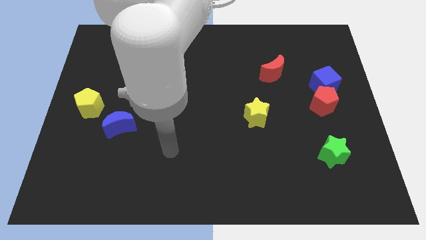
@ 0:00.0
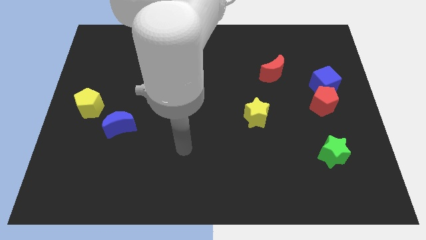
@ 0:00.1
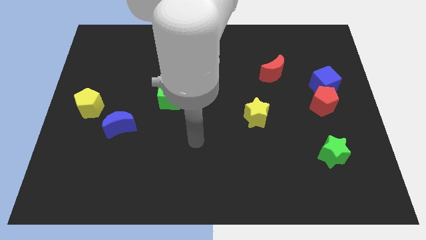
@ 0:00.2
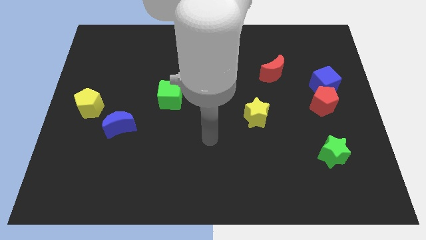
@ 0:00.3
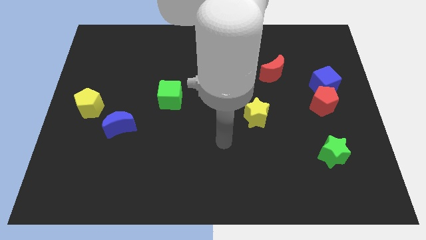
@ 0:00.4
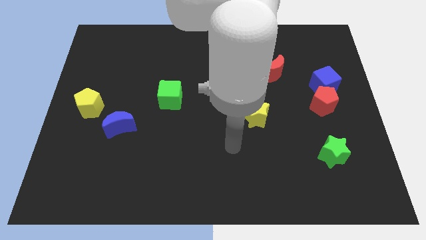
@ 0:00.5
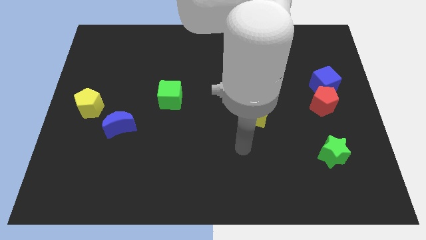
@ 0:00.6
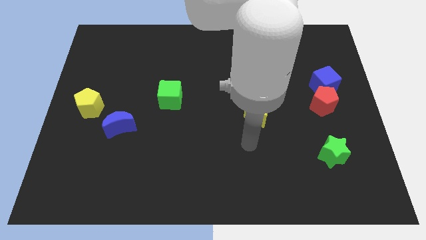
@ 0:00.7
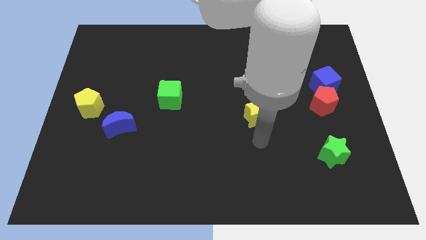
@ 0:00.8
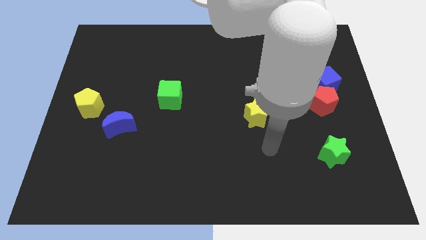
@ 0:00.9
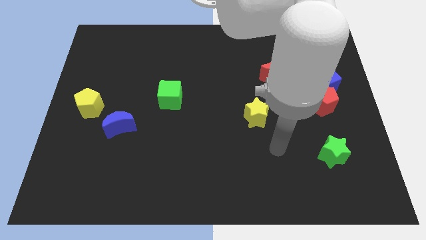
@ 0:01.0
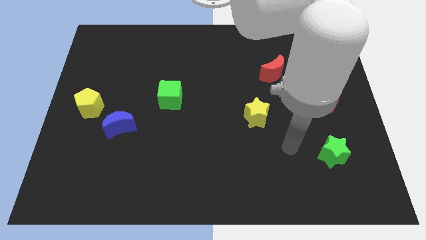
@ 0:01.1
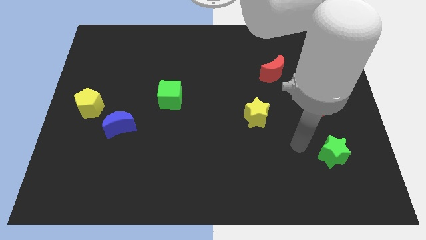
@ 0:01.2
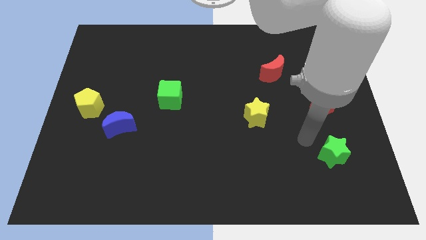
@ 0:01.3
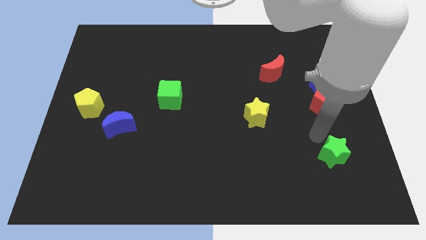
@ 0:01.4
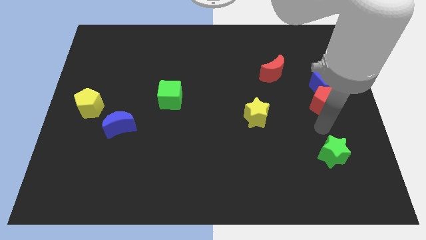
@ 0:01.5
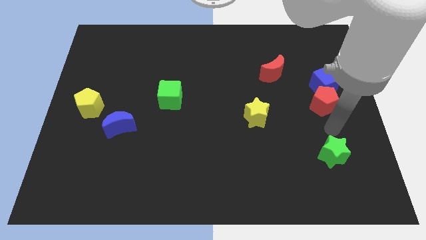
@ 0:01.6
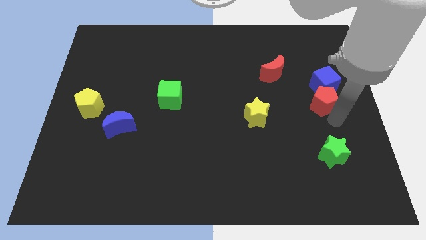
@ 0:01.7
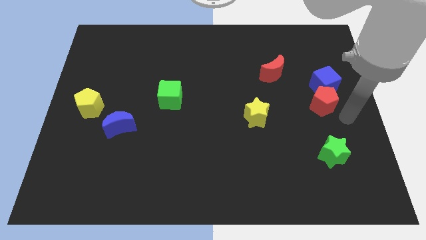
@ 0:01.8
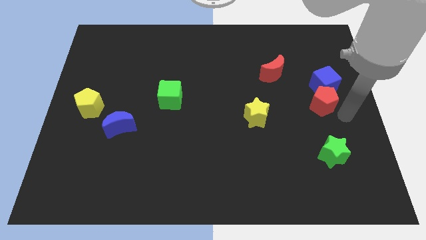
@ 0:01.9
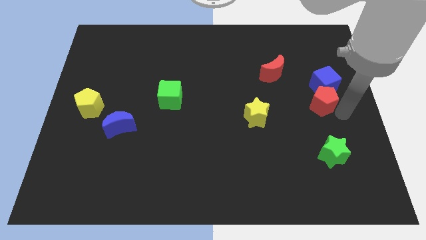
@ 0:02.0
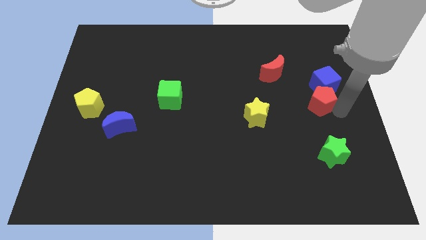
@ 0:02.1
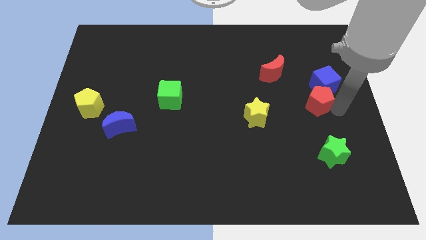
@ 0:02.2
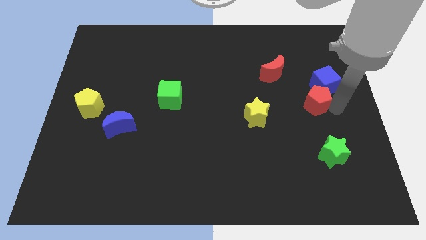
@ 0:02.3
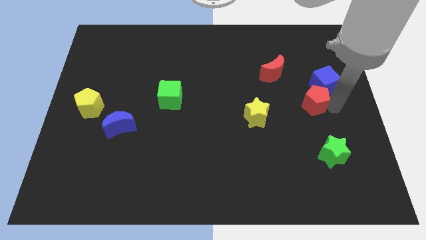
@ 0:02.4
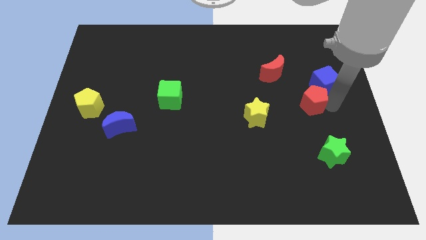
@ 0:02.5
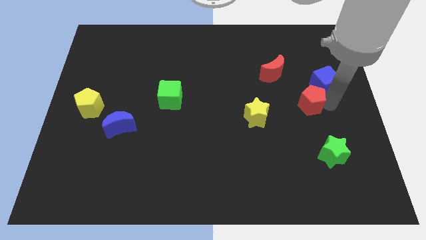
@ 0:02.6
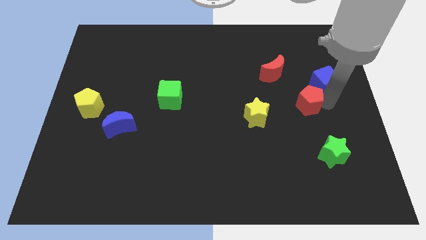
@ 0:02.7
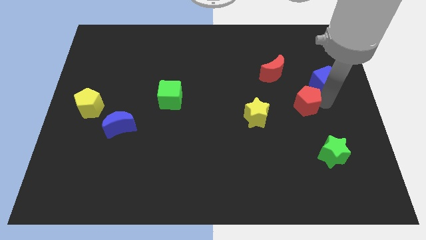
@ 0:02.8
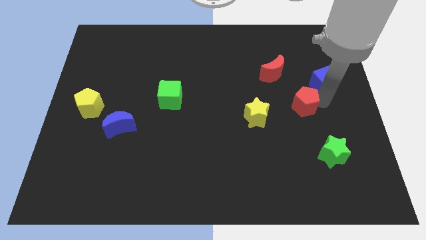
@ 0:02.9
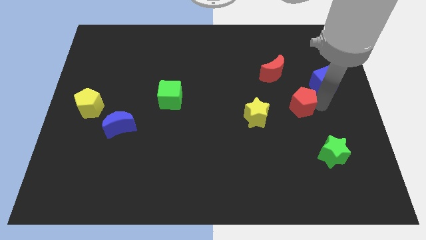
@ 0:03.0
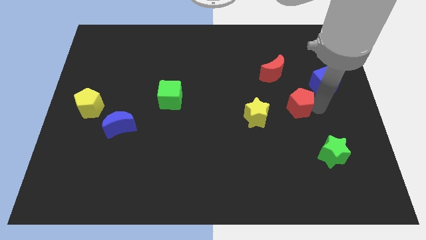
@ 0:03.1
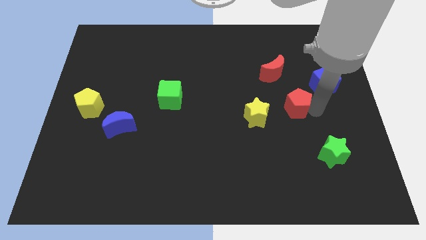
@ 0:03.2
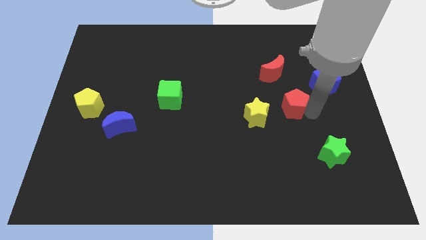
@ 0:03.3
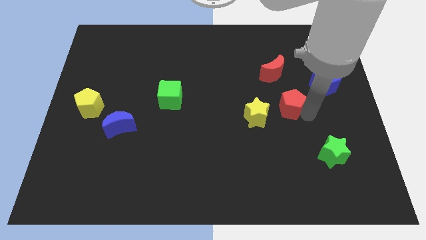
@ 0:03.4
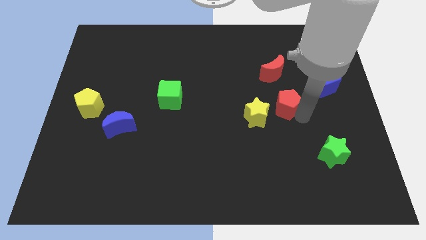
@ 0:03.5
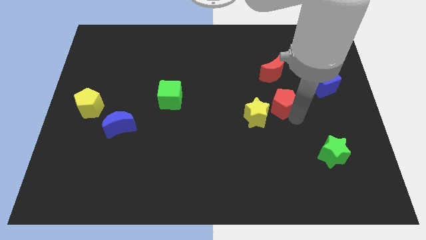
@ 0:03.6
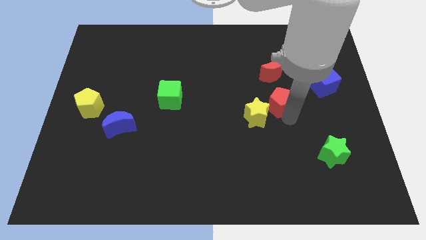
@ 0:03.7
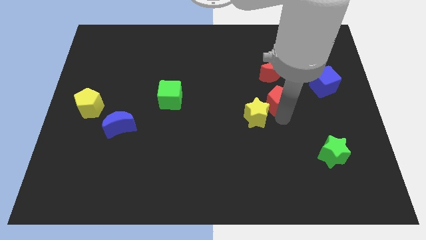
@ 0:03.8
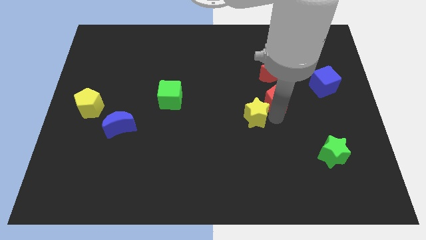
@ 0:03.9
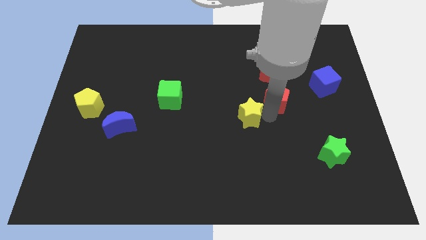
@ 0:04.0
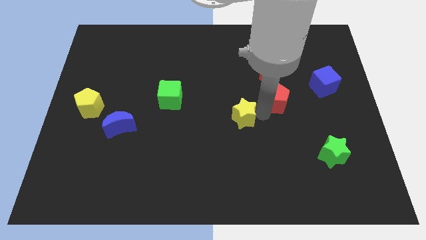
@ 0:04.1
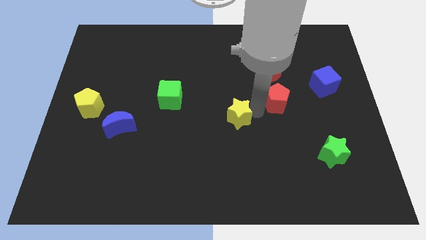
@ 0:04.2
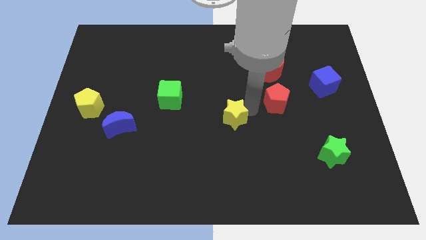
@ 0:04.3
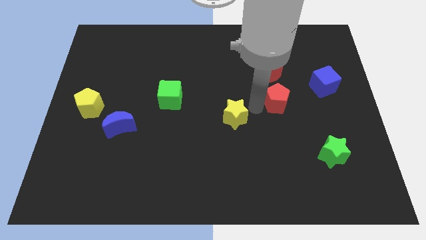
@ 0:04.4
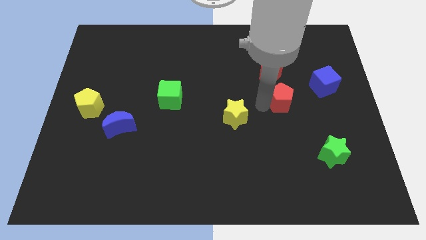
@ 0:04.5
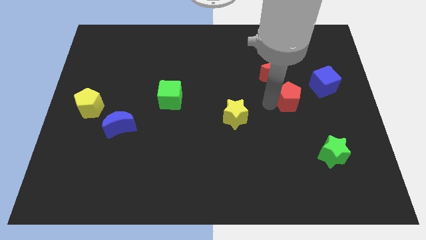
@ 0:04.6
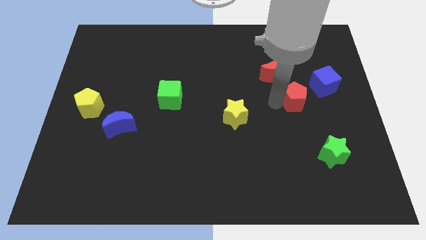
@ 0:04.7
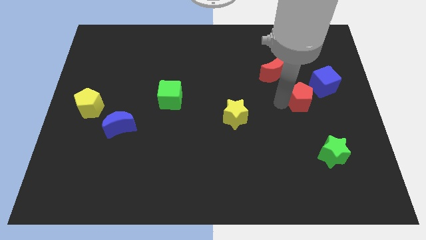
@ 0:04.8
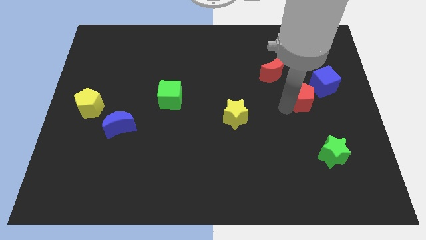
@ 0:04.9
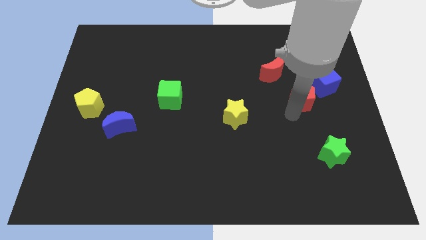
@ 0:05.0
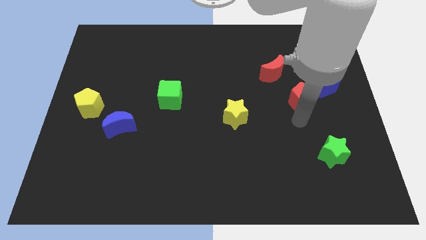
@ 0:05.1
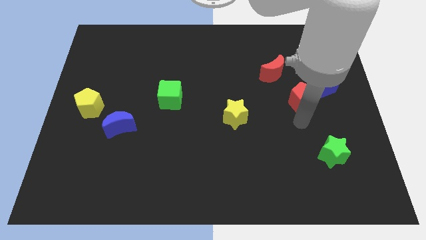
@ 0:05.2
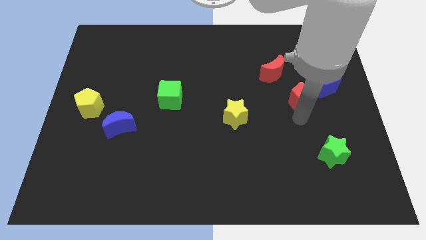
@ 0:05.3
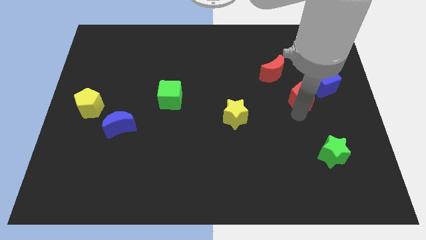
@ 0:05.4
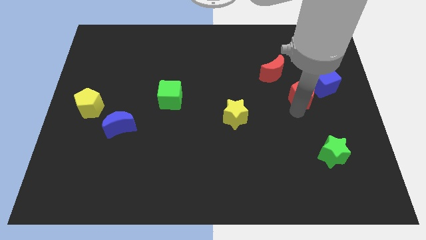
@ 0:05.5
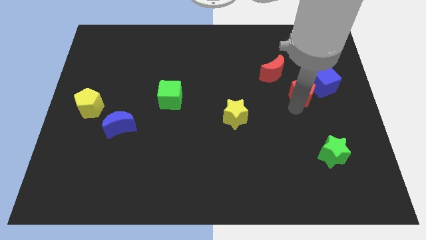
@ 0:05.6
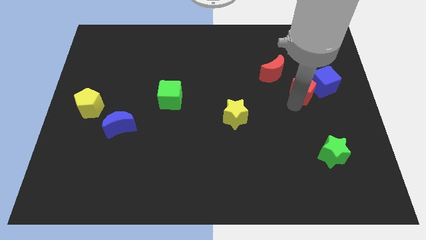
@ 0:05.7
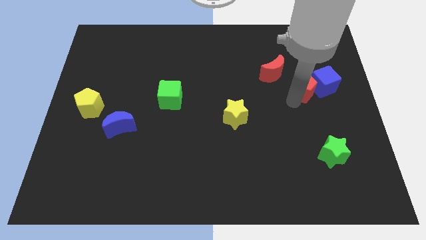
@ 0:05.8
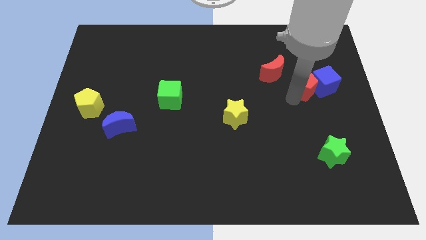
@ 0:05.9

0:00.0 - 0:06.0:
slide the red pentagon to the top left of the blue cube

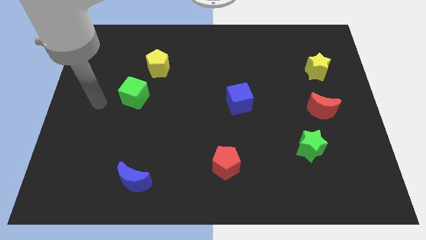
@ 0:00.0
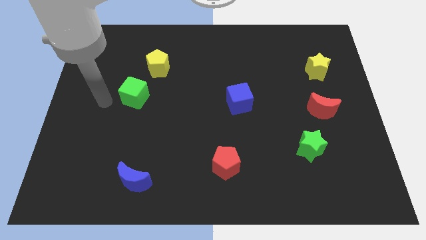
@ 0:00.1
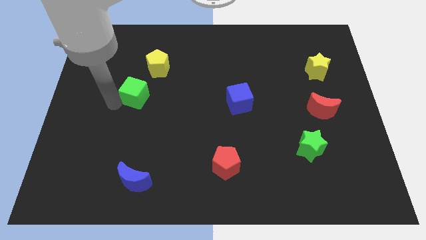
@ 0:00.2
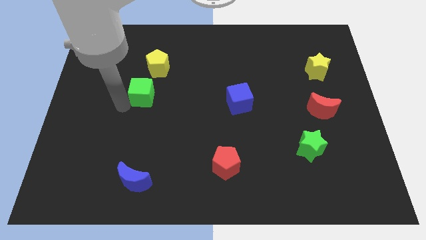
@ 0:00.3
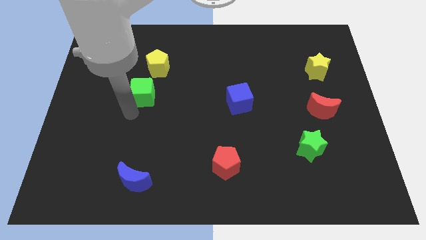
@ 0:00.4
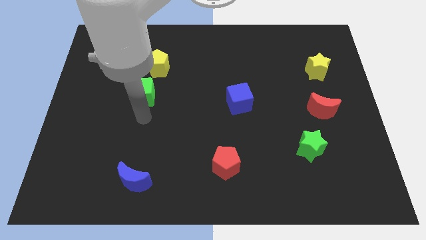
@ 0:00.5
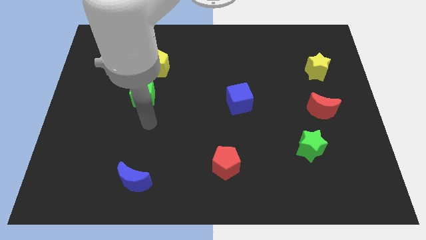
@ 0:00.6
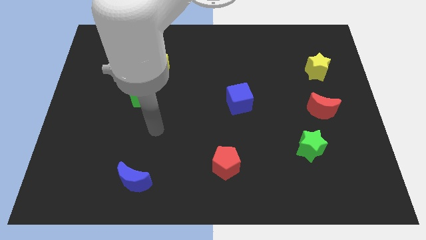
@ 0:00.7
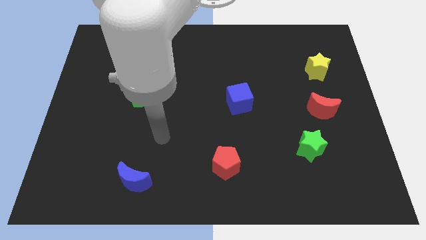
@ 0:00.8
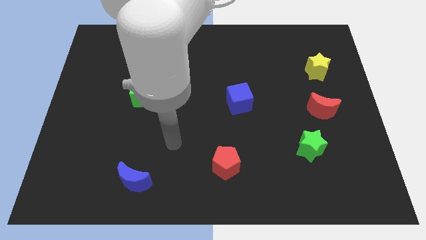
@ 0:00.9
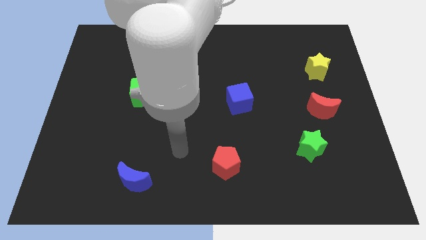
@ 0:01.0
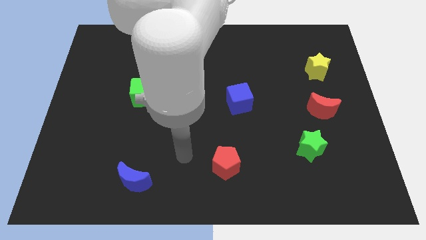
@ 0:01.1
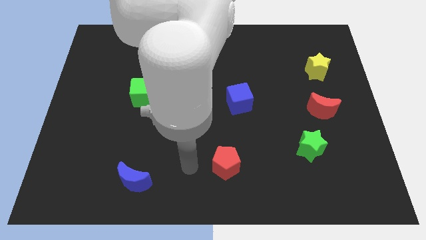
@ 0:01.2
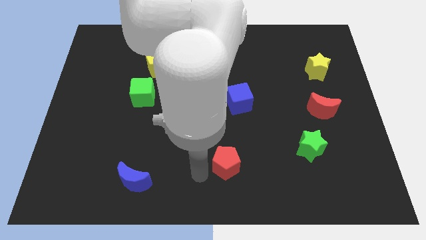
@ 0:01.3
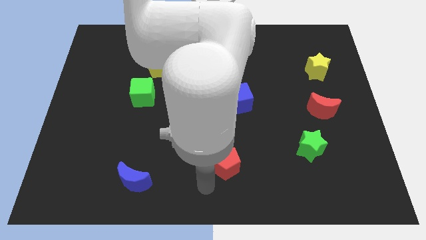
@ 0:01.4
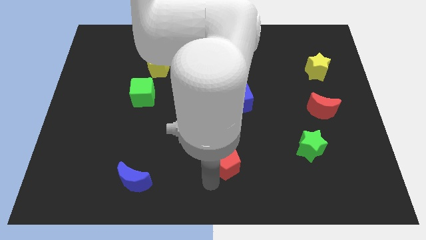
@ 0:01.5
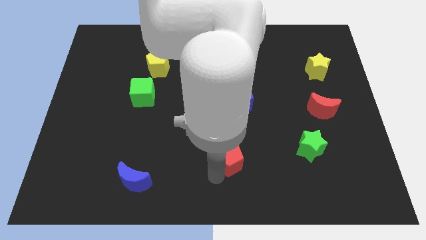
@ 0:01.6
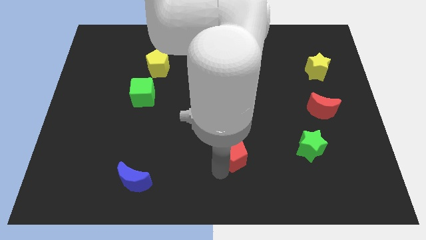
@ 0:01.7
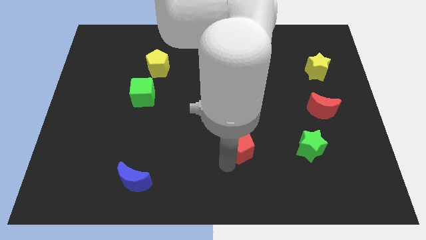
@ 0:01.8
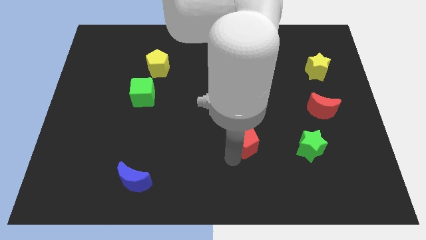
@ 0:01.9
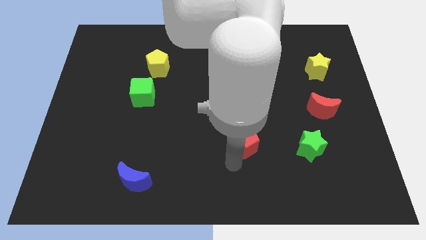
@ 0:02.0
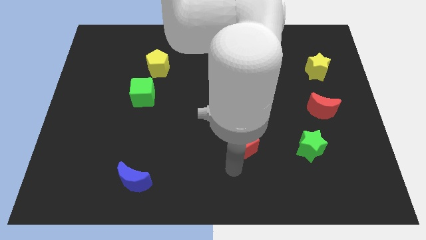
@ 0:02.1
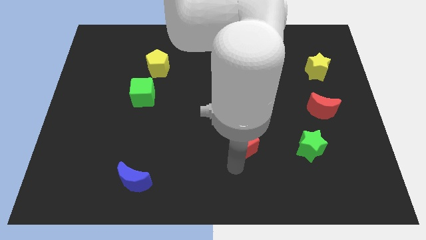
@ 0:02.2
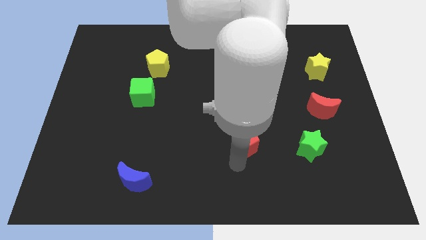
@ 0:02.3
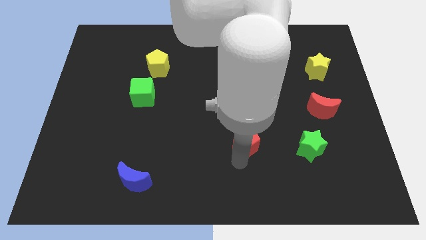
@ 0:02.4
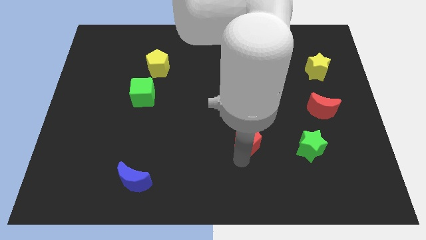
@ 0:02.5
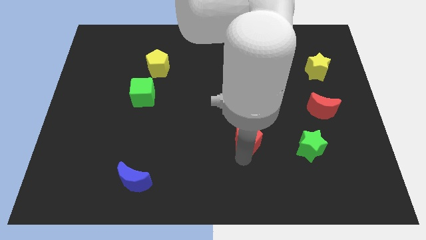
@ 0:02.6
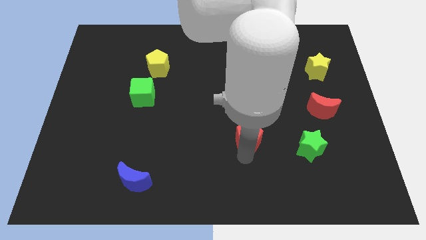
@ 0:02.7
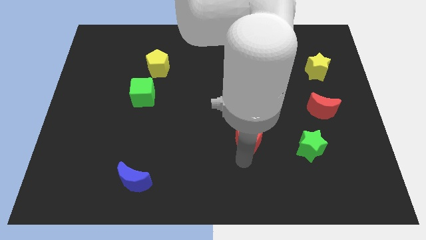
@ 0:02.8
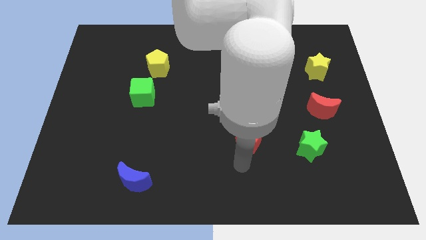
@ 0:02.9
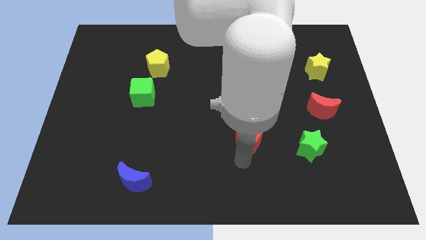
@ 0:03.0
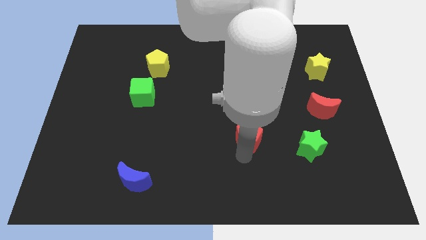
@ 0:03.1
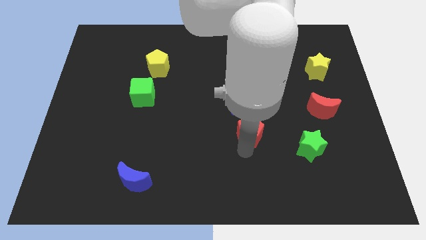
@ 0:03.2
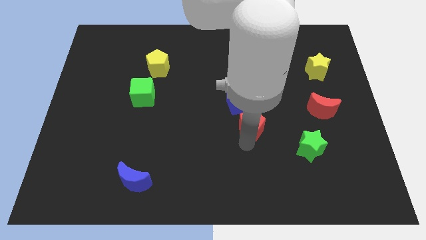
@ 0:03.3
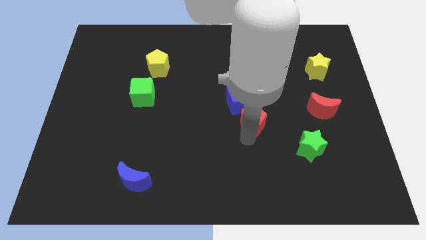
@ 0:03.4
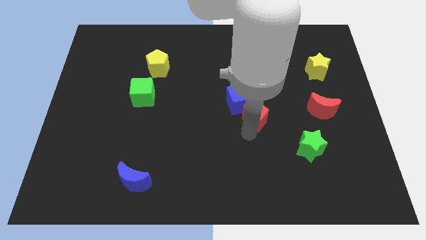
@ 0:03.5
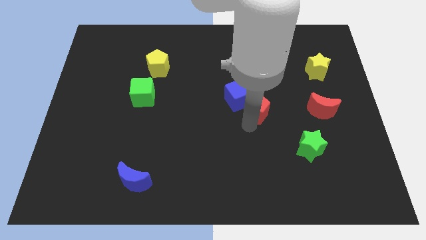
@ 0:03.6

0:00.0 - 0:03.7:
push the red pentagon to the right side of the blue cube
